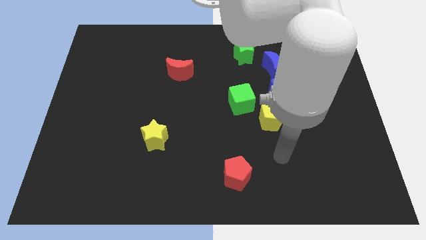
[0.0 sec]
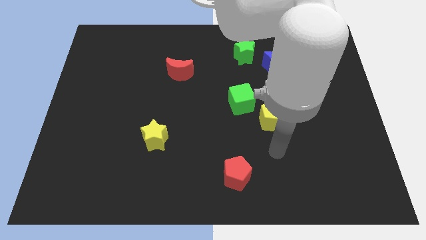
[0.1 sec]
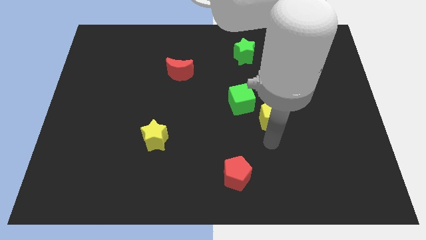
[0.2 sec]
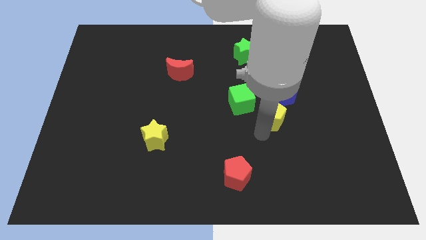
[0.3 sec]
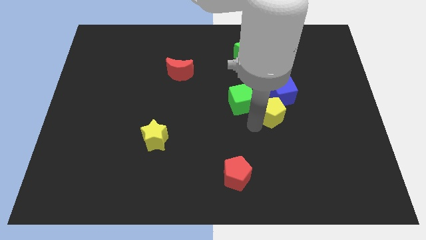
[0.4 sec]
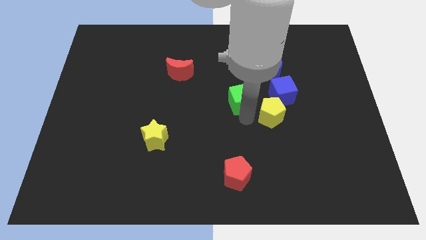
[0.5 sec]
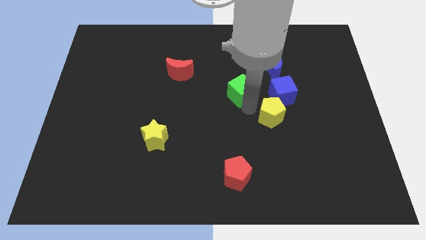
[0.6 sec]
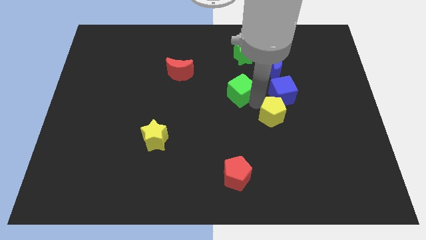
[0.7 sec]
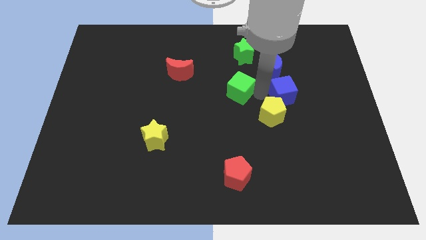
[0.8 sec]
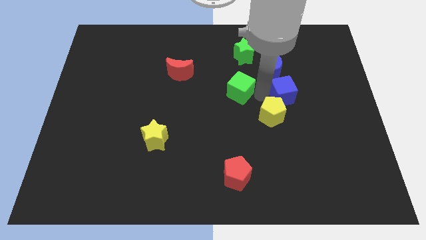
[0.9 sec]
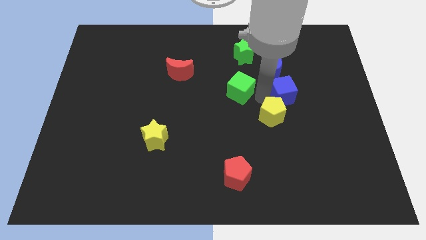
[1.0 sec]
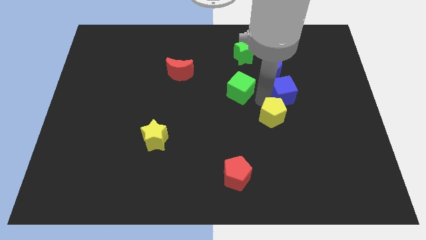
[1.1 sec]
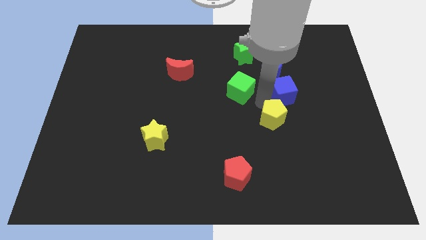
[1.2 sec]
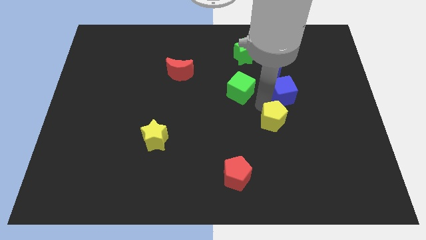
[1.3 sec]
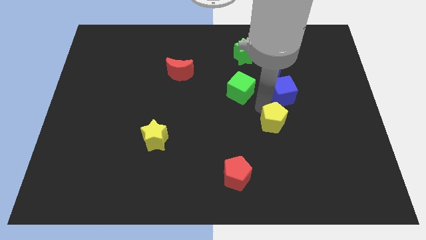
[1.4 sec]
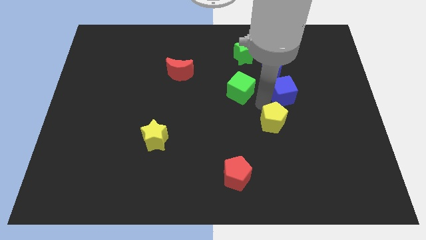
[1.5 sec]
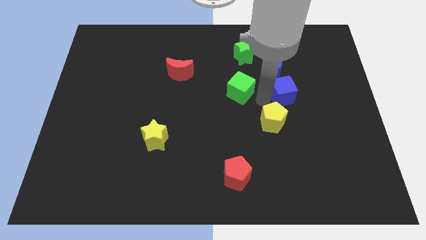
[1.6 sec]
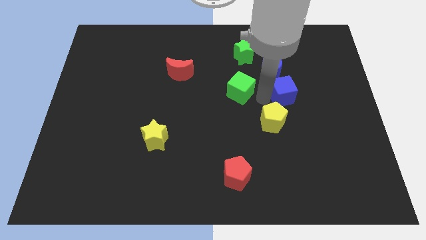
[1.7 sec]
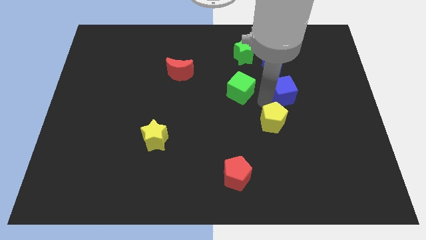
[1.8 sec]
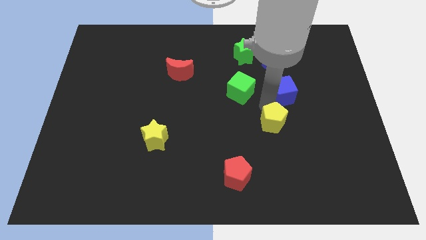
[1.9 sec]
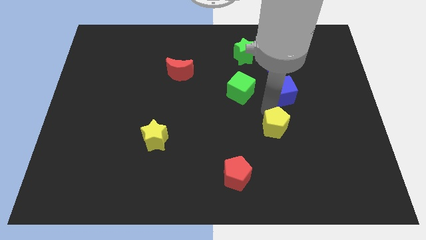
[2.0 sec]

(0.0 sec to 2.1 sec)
pull the yellow pentagon apart from the blue cube and green cube

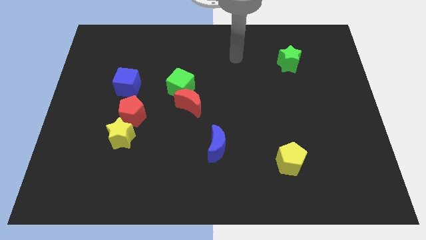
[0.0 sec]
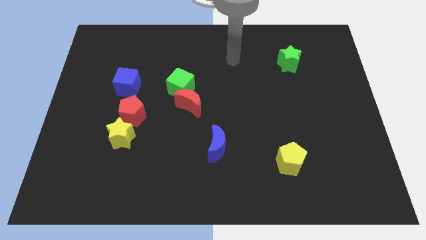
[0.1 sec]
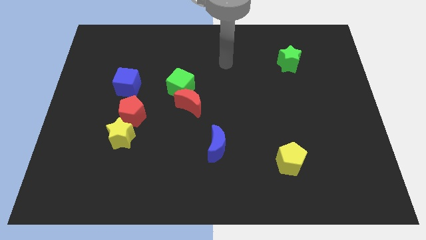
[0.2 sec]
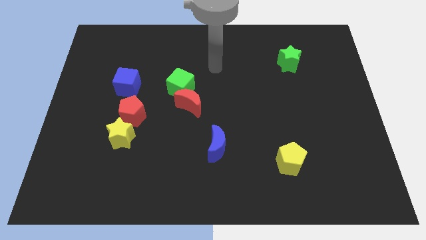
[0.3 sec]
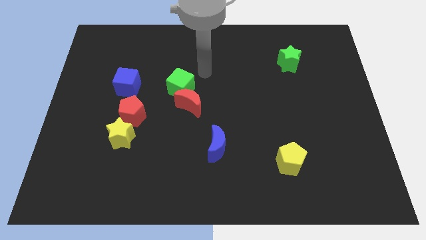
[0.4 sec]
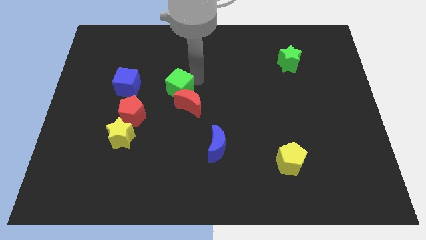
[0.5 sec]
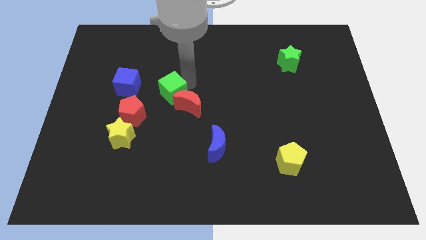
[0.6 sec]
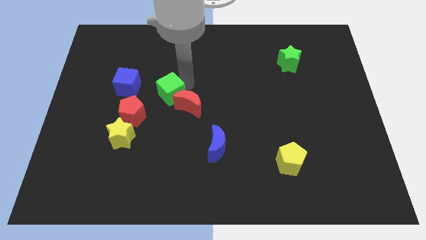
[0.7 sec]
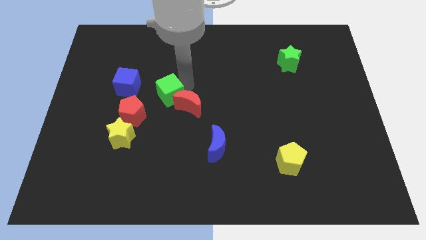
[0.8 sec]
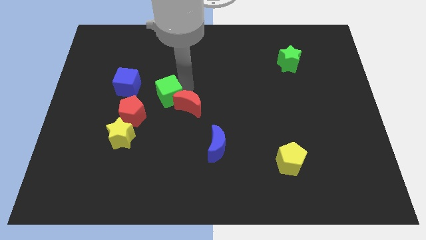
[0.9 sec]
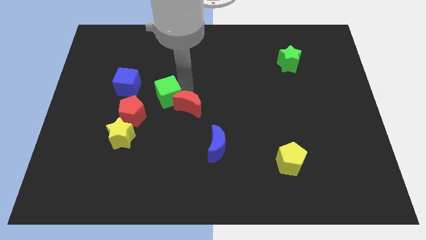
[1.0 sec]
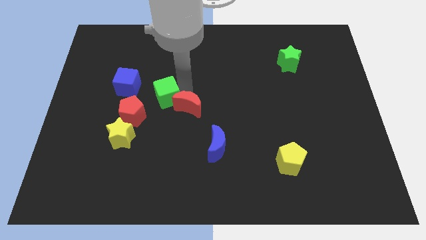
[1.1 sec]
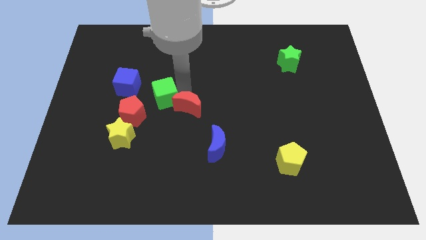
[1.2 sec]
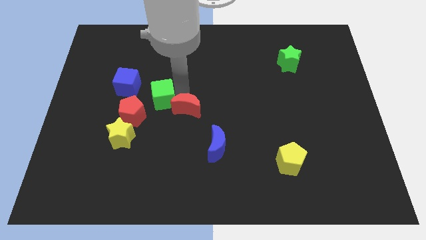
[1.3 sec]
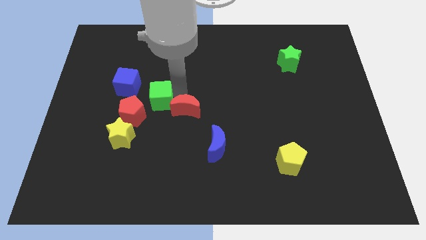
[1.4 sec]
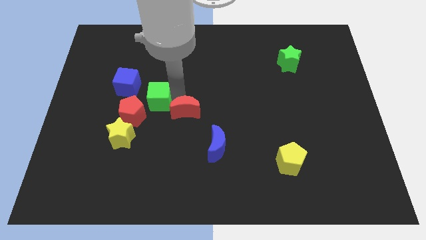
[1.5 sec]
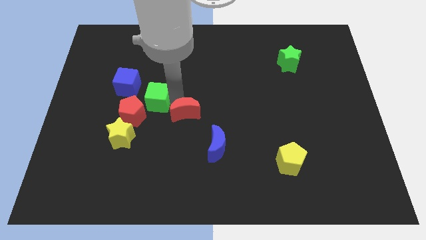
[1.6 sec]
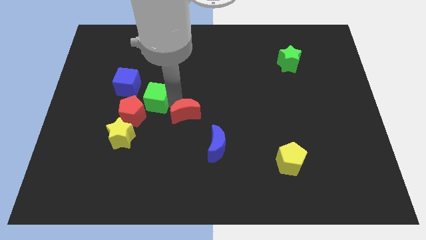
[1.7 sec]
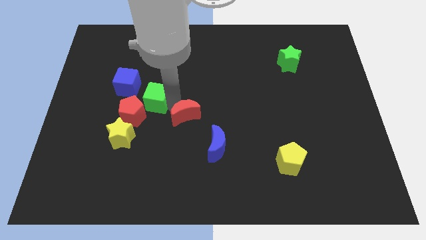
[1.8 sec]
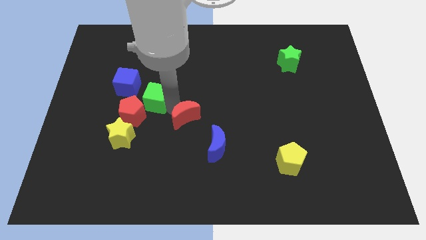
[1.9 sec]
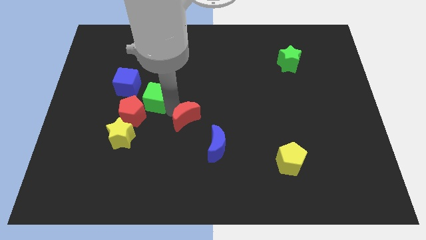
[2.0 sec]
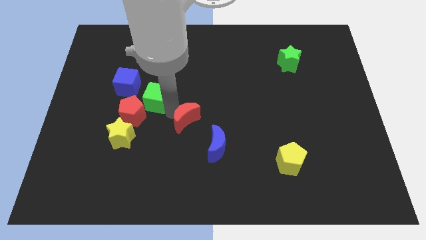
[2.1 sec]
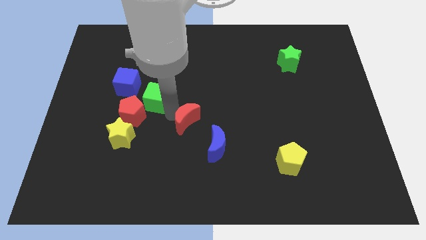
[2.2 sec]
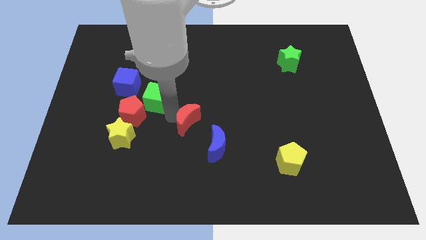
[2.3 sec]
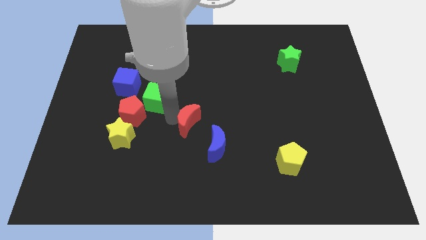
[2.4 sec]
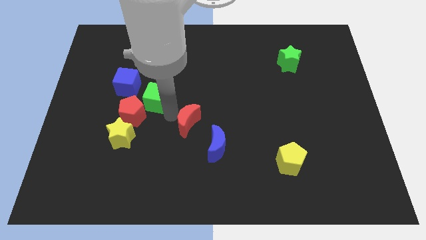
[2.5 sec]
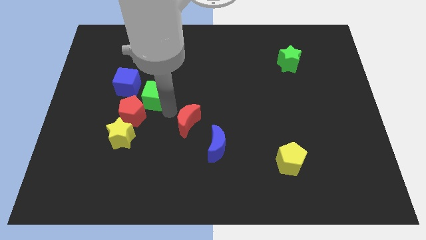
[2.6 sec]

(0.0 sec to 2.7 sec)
move the red moon away from the green cube

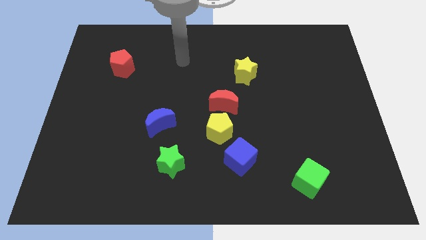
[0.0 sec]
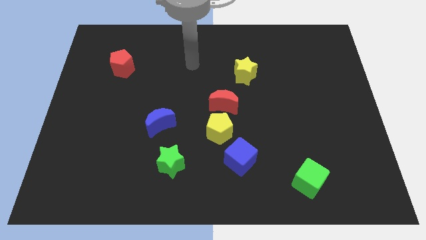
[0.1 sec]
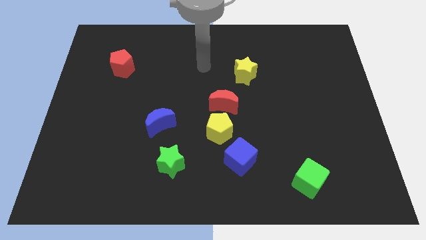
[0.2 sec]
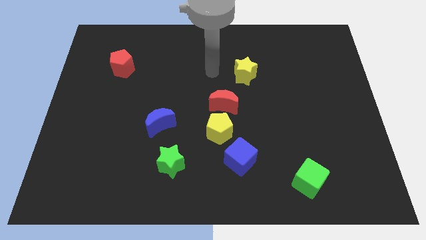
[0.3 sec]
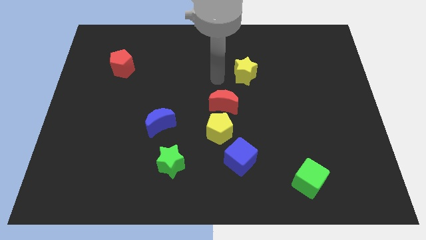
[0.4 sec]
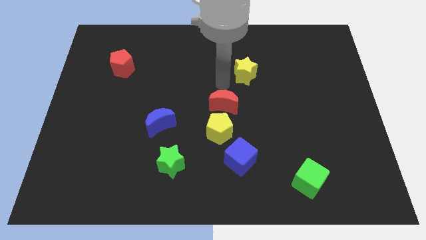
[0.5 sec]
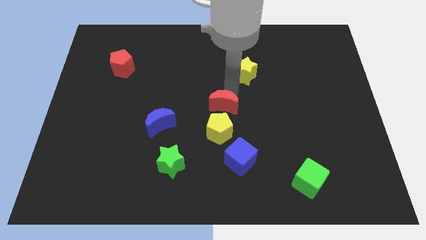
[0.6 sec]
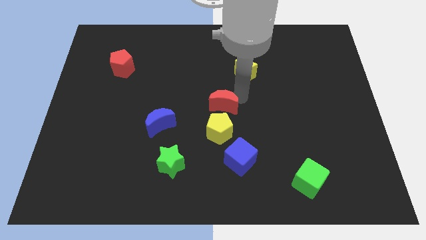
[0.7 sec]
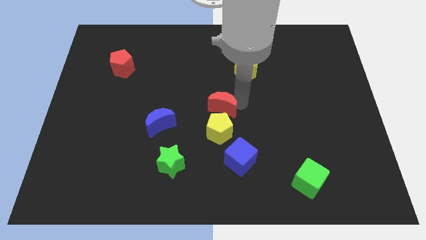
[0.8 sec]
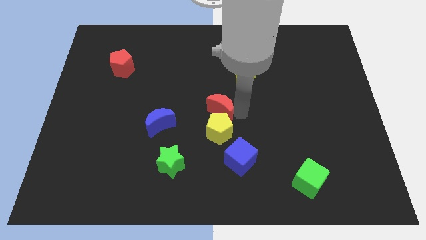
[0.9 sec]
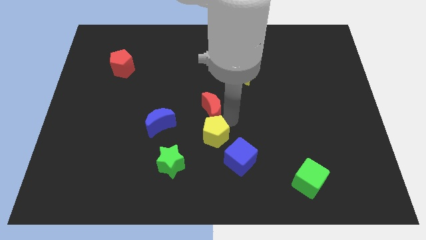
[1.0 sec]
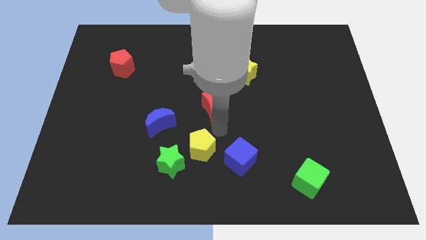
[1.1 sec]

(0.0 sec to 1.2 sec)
pull the red moon apart from the yellow pentagon

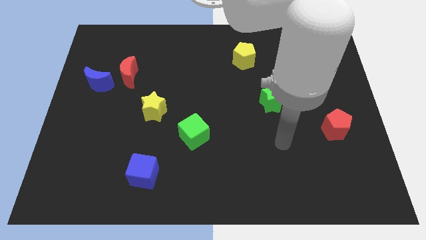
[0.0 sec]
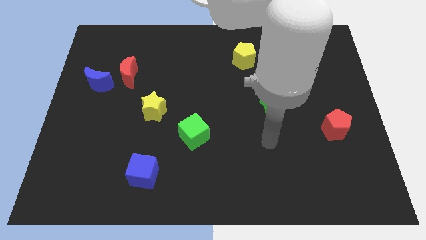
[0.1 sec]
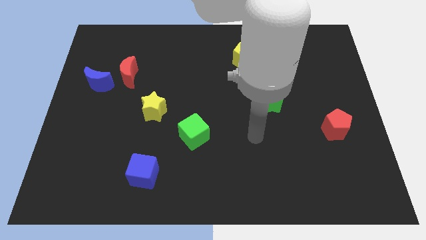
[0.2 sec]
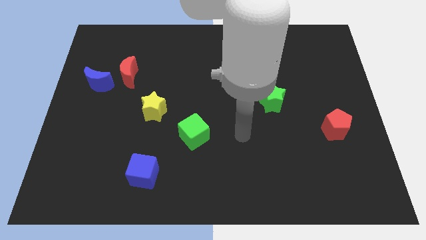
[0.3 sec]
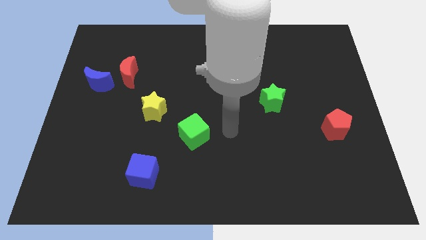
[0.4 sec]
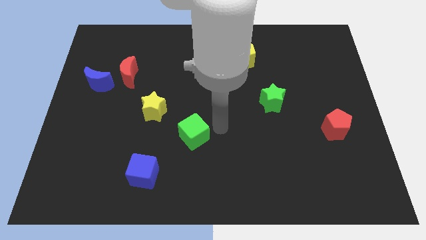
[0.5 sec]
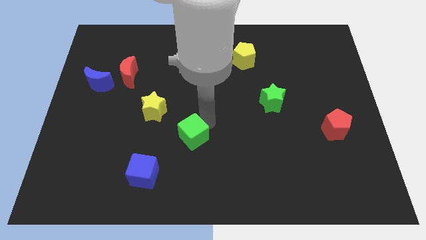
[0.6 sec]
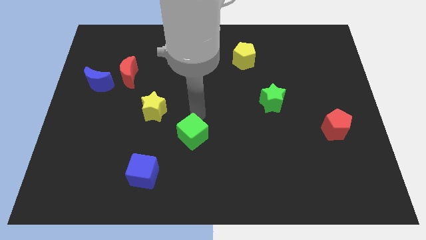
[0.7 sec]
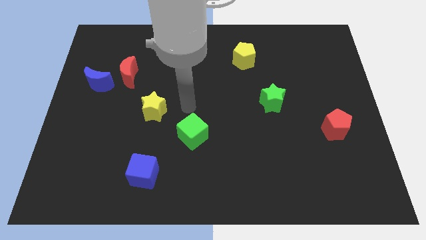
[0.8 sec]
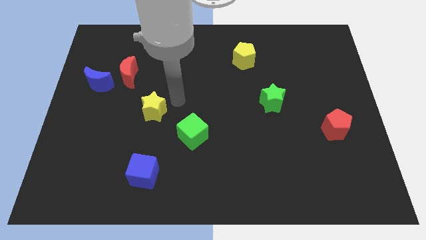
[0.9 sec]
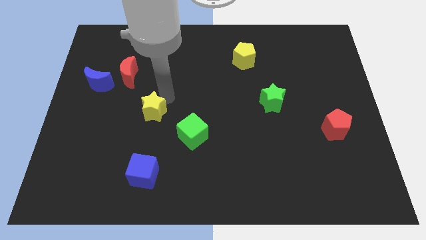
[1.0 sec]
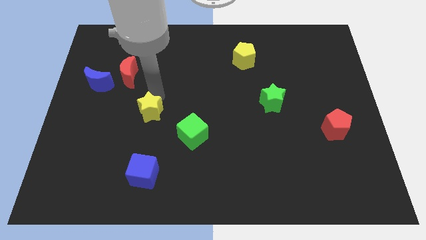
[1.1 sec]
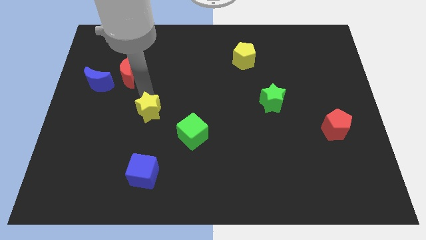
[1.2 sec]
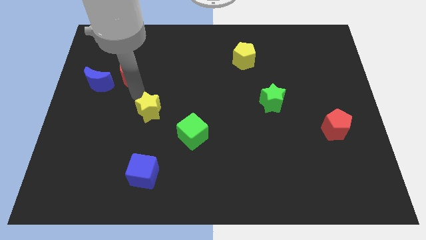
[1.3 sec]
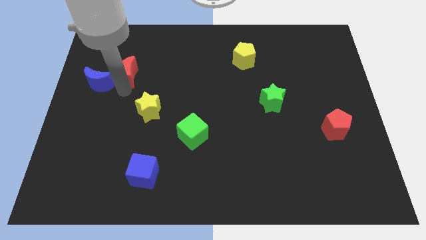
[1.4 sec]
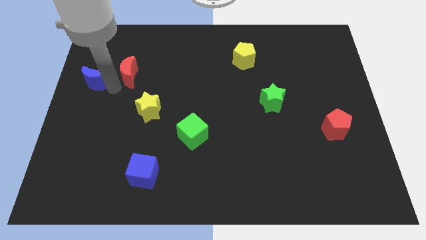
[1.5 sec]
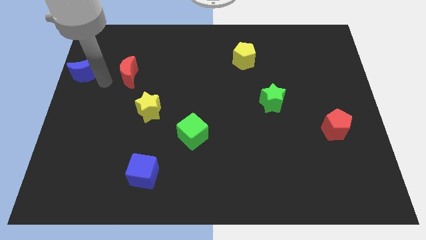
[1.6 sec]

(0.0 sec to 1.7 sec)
separate the red moon from the blue moon

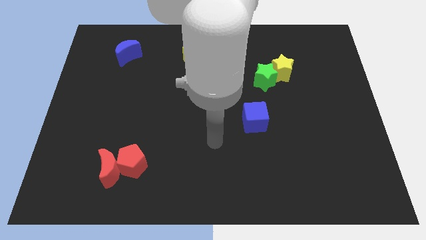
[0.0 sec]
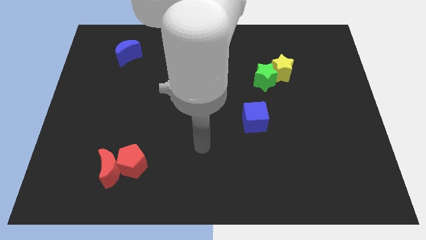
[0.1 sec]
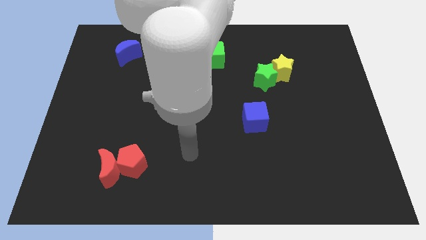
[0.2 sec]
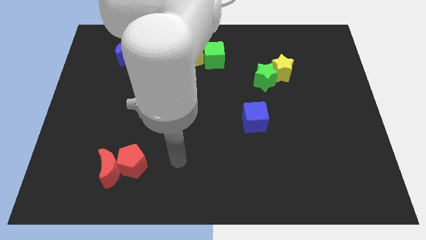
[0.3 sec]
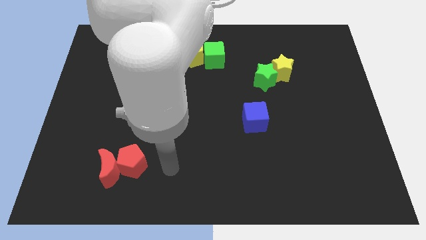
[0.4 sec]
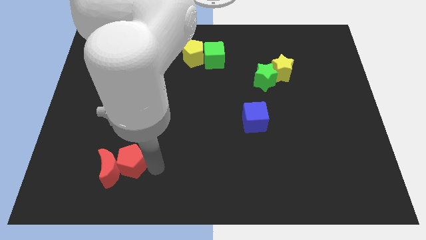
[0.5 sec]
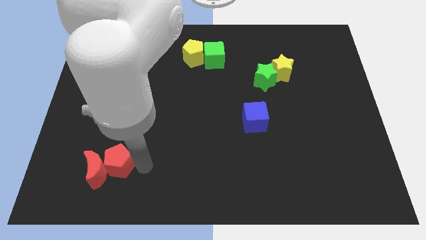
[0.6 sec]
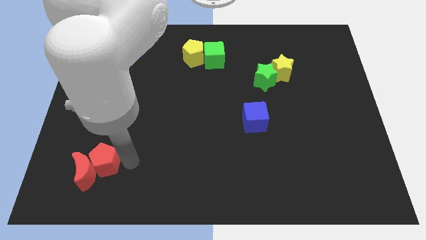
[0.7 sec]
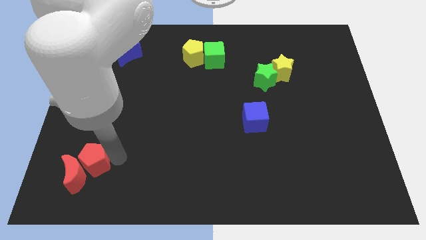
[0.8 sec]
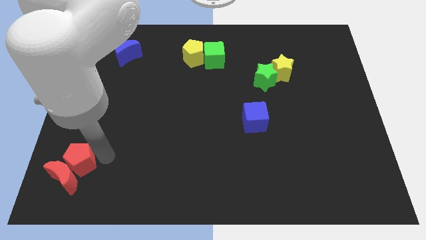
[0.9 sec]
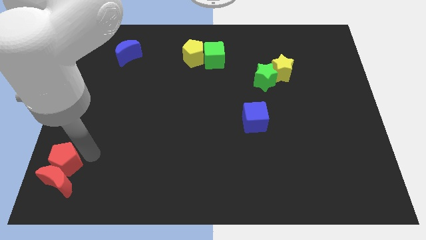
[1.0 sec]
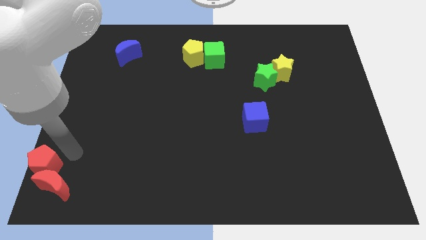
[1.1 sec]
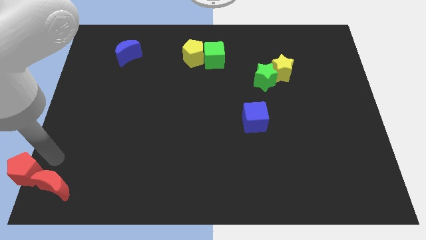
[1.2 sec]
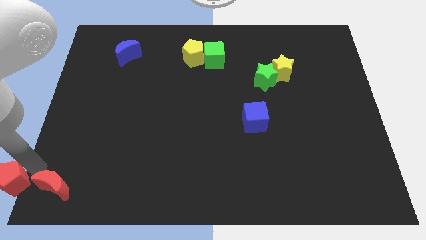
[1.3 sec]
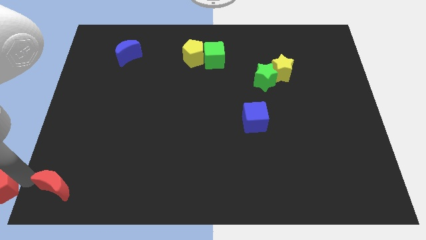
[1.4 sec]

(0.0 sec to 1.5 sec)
move the red moon away from the red pentagon

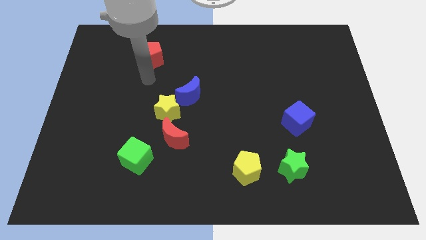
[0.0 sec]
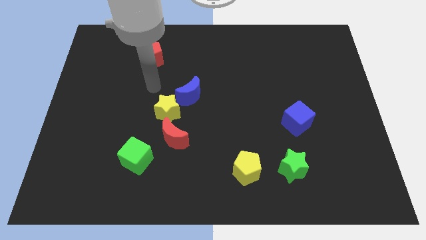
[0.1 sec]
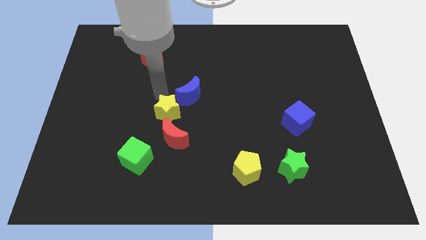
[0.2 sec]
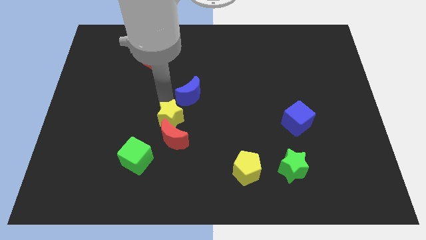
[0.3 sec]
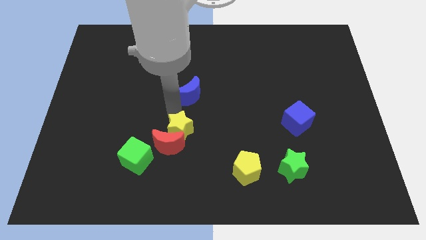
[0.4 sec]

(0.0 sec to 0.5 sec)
pull the blue moon apart from the yellow star
